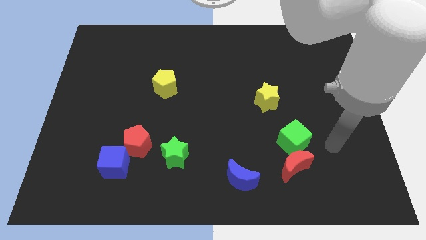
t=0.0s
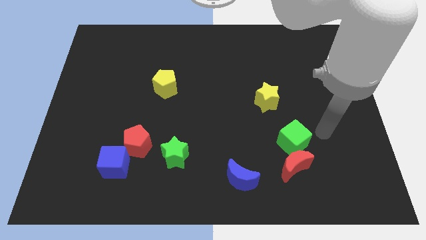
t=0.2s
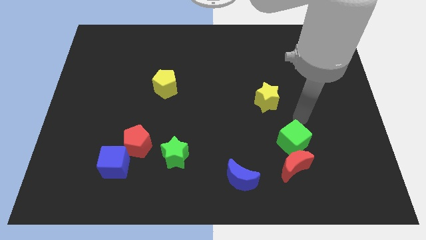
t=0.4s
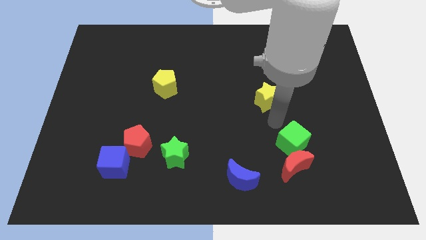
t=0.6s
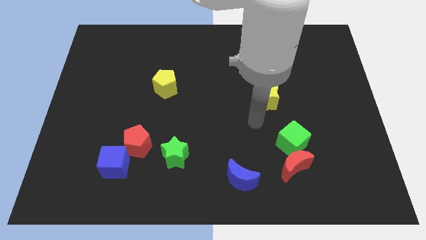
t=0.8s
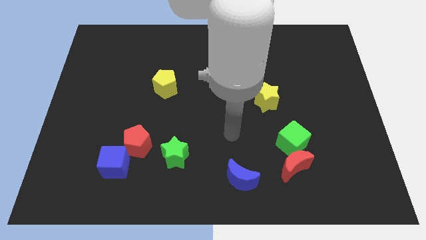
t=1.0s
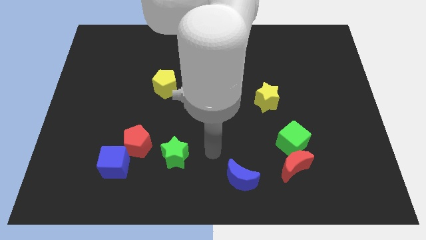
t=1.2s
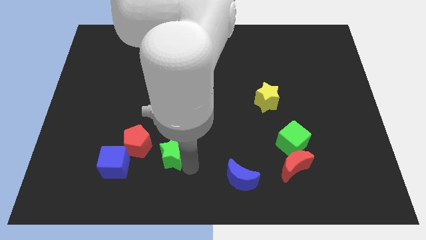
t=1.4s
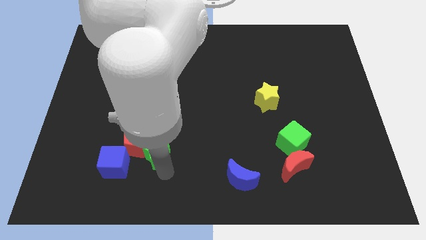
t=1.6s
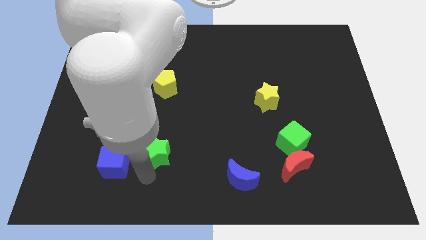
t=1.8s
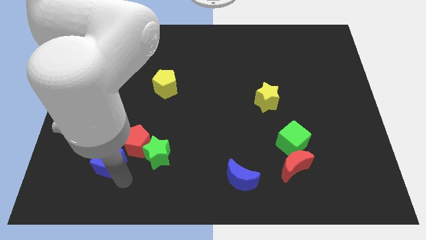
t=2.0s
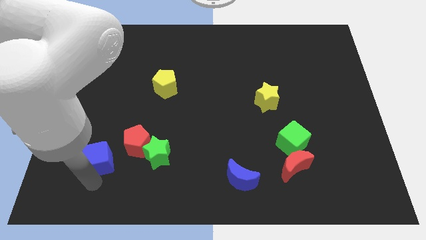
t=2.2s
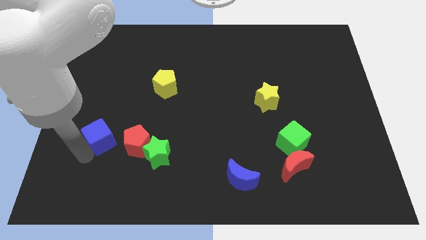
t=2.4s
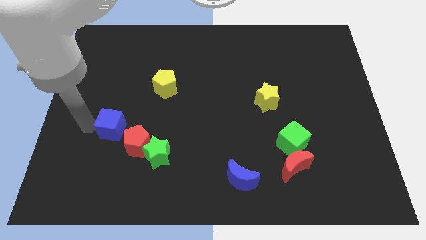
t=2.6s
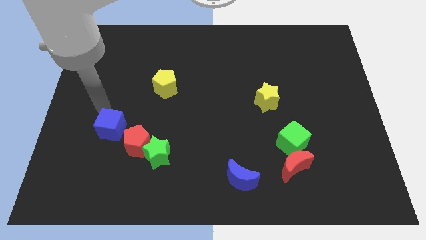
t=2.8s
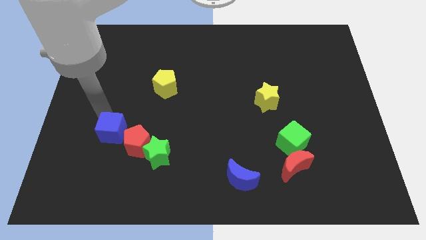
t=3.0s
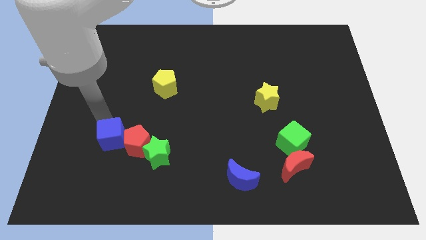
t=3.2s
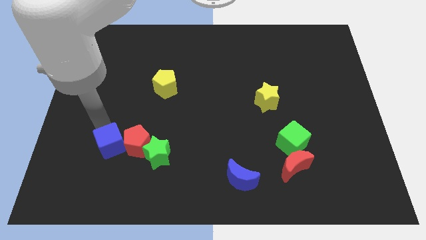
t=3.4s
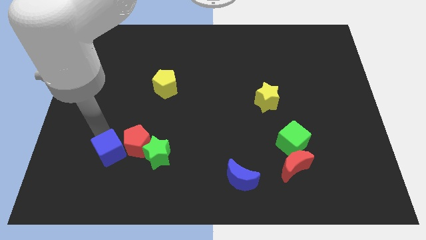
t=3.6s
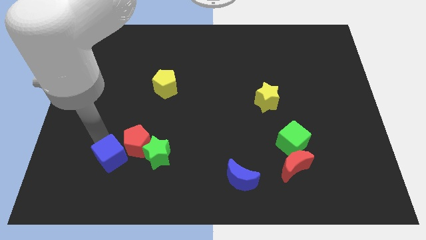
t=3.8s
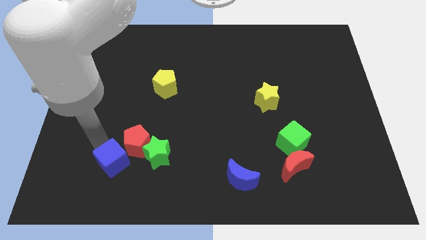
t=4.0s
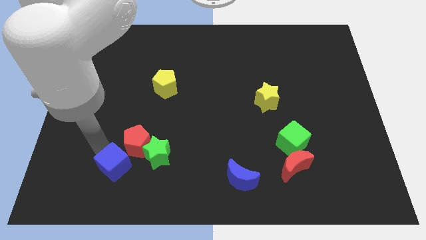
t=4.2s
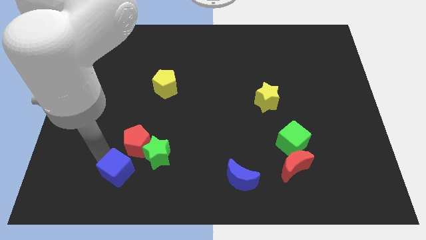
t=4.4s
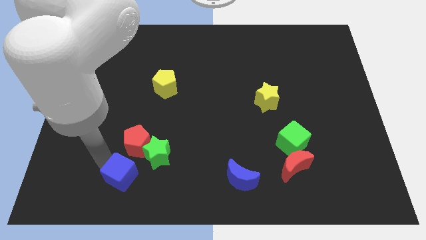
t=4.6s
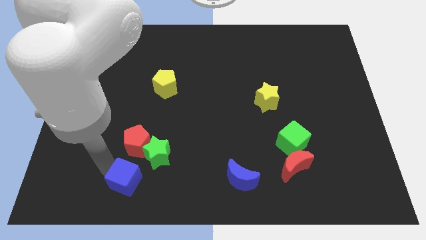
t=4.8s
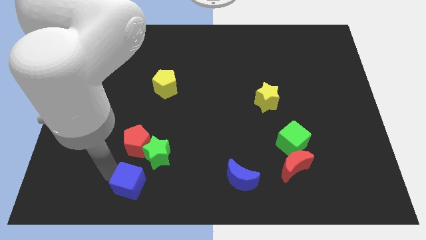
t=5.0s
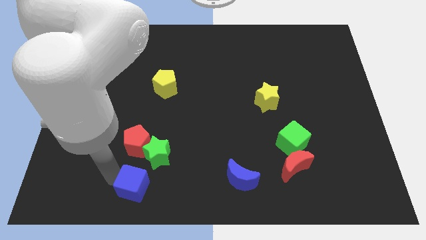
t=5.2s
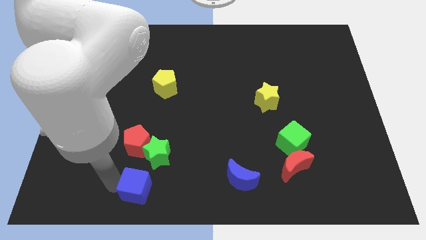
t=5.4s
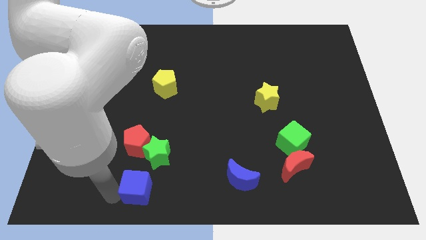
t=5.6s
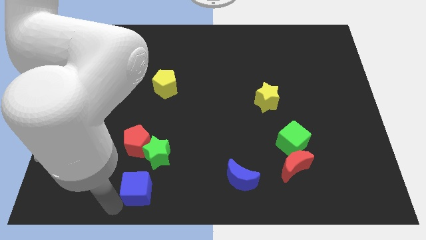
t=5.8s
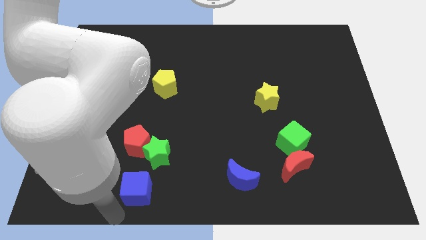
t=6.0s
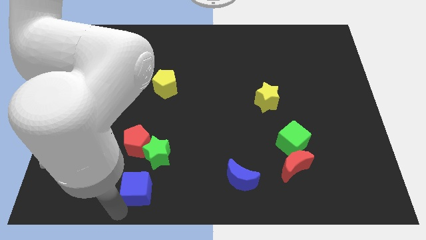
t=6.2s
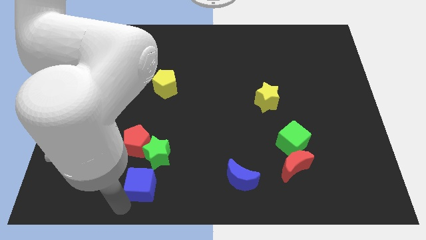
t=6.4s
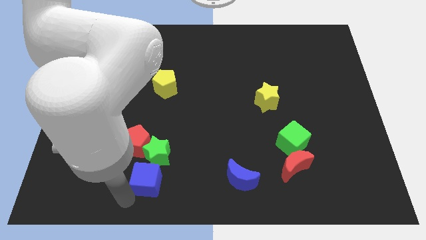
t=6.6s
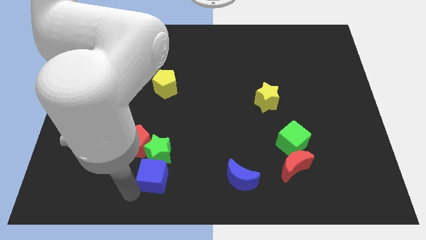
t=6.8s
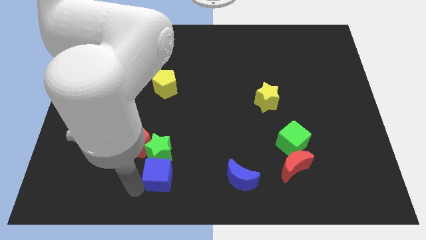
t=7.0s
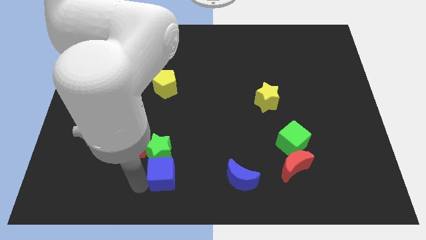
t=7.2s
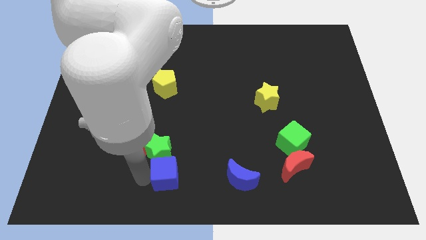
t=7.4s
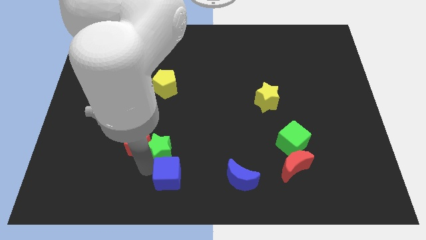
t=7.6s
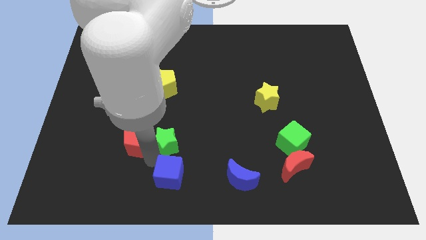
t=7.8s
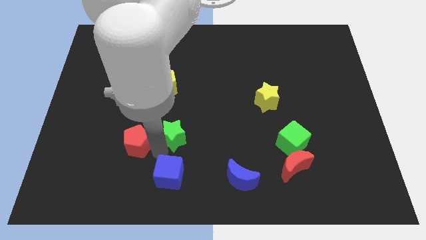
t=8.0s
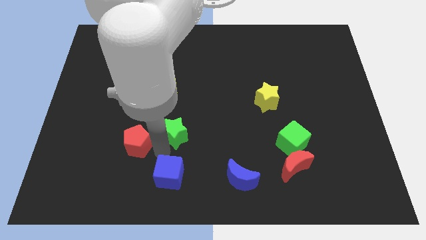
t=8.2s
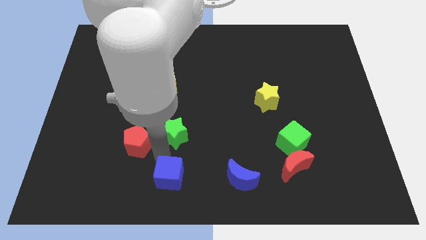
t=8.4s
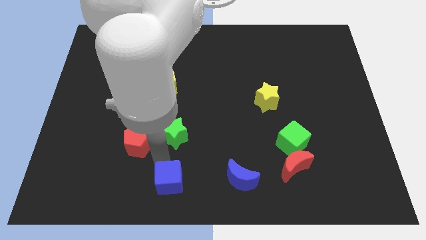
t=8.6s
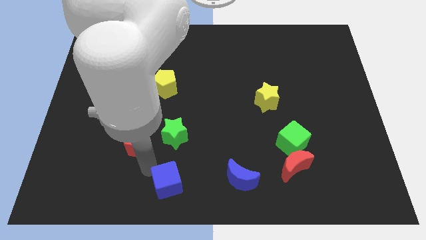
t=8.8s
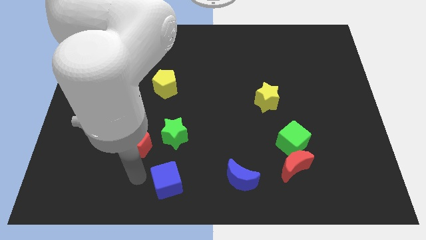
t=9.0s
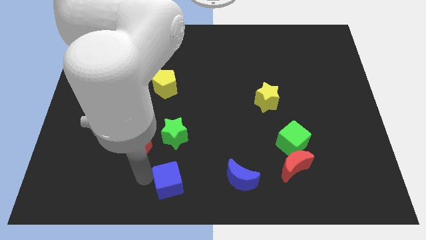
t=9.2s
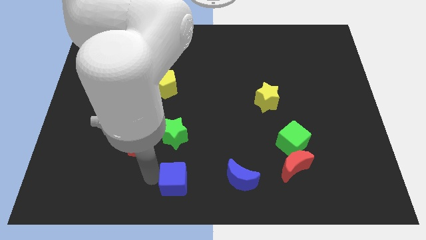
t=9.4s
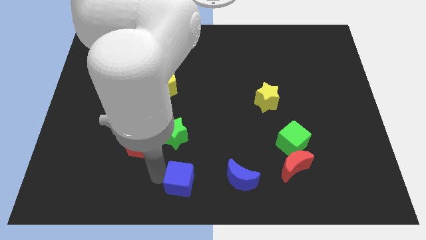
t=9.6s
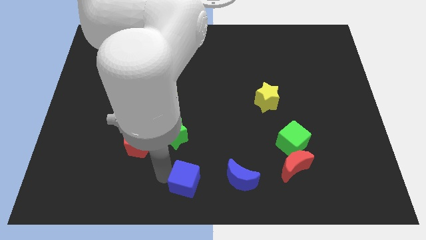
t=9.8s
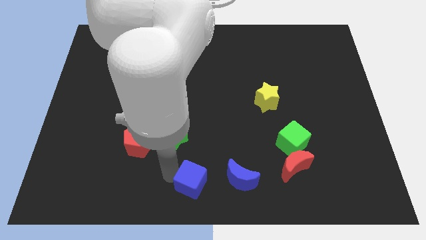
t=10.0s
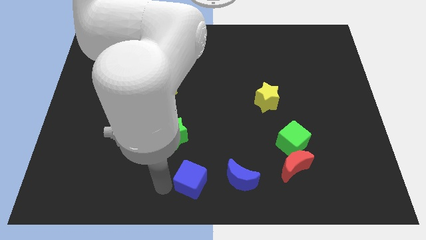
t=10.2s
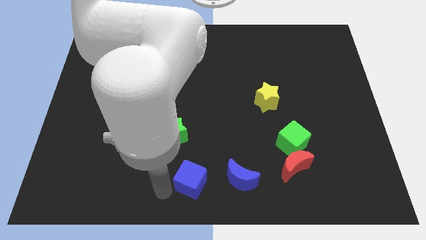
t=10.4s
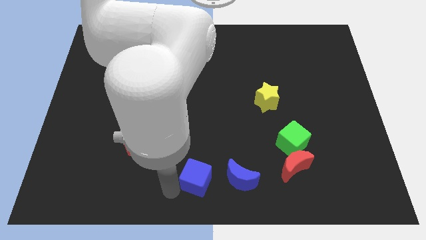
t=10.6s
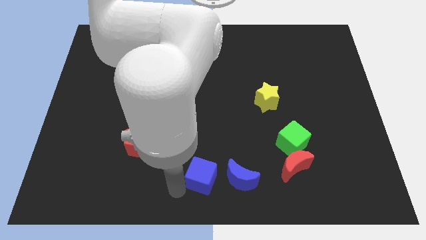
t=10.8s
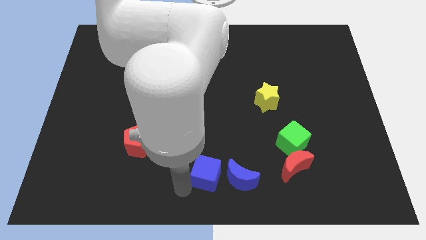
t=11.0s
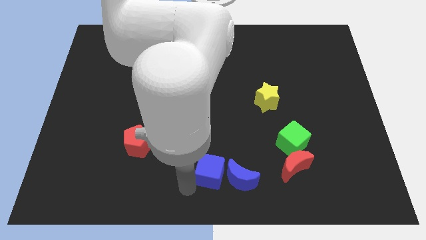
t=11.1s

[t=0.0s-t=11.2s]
move the blue cube to the right

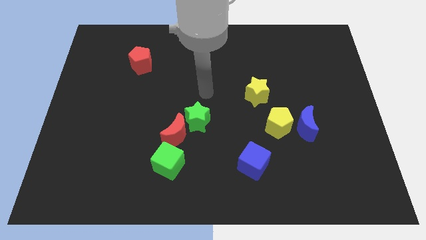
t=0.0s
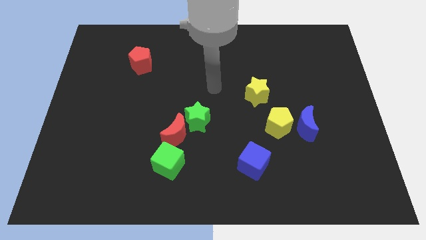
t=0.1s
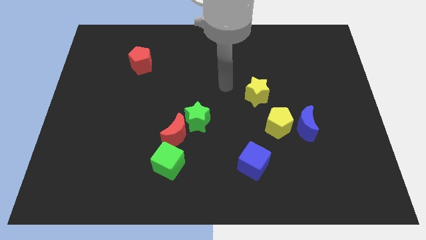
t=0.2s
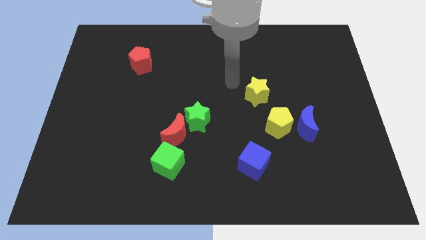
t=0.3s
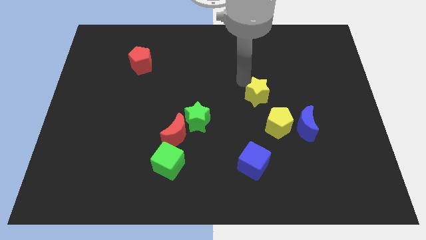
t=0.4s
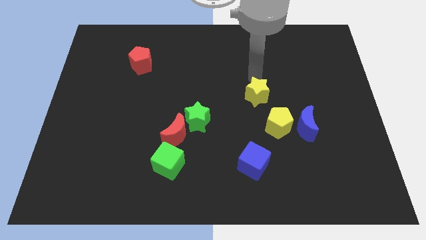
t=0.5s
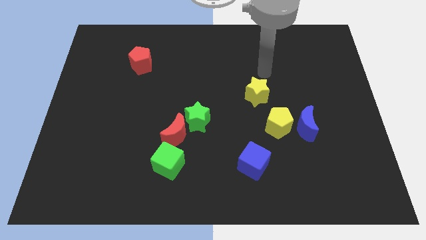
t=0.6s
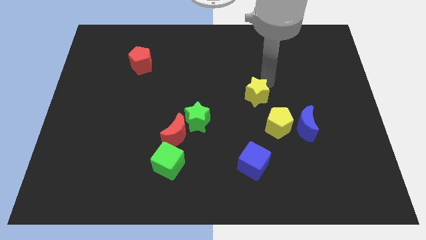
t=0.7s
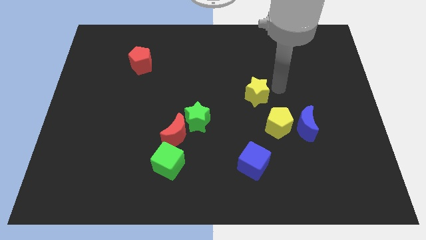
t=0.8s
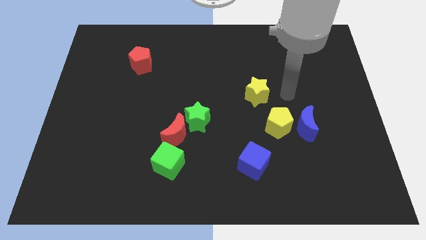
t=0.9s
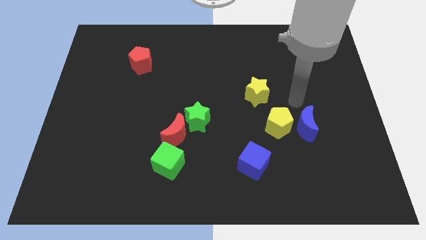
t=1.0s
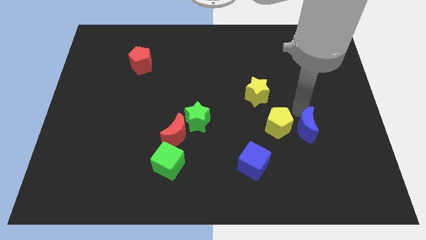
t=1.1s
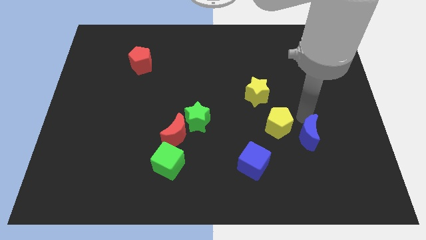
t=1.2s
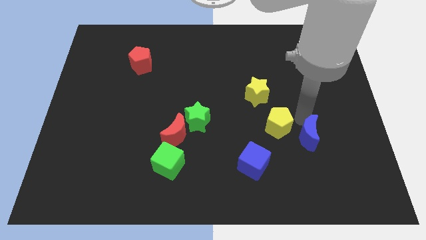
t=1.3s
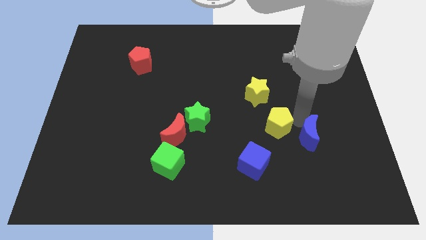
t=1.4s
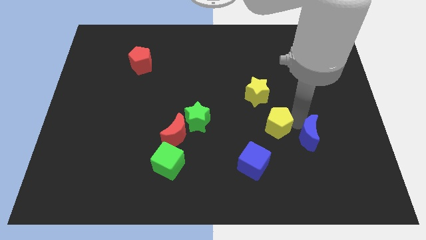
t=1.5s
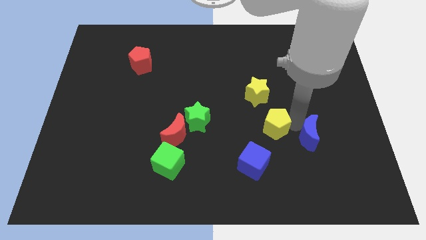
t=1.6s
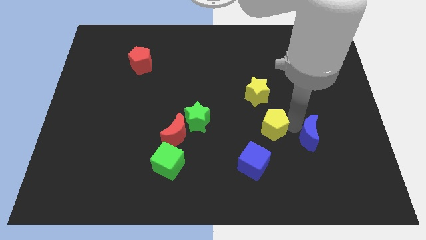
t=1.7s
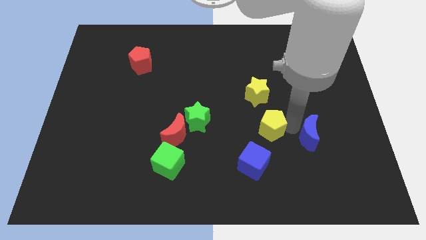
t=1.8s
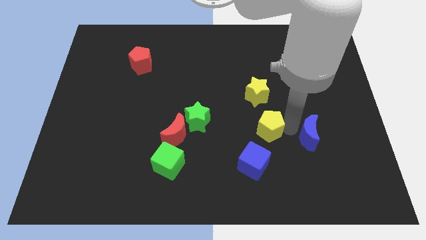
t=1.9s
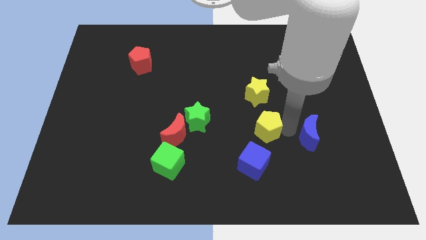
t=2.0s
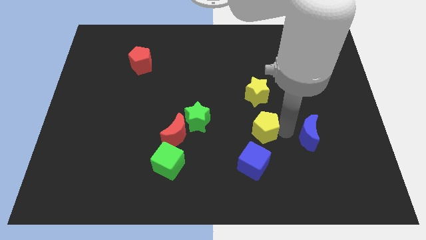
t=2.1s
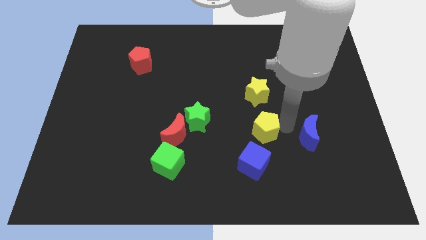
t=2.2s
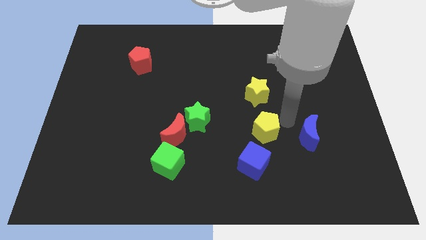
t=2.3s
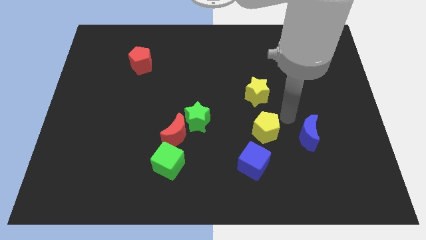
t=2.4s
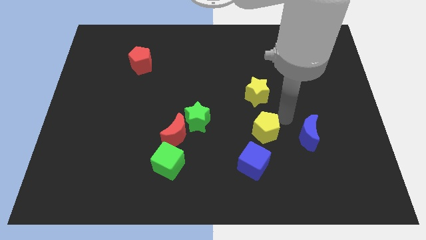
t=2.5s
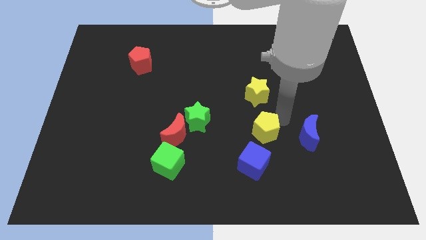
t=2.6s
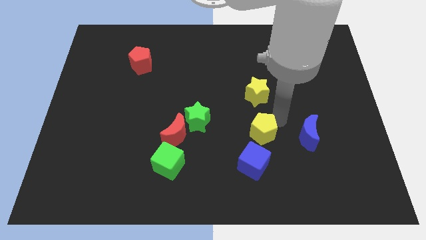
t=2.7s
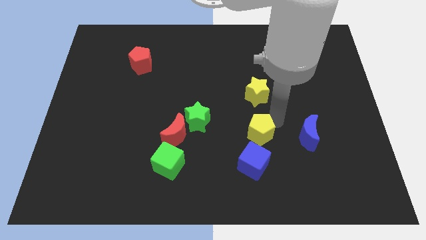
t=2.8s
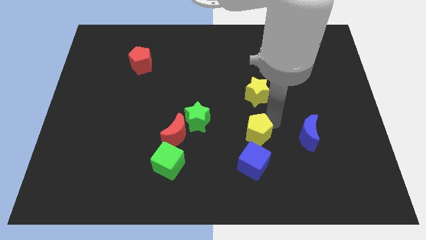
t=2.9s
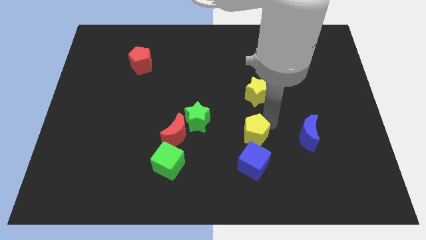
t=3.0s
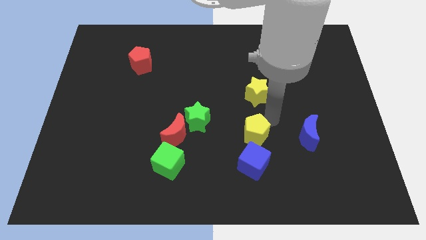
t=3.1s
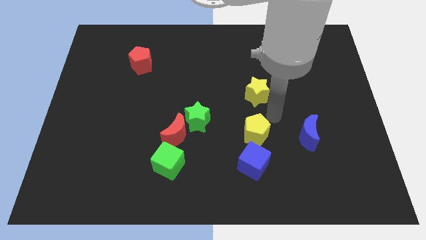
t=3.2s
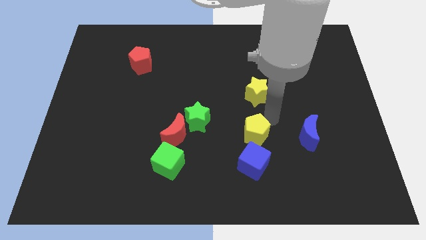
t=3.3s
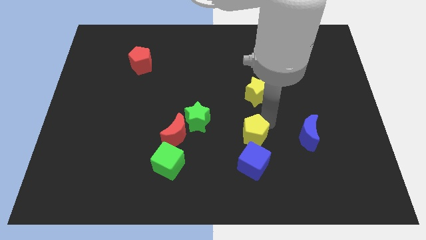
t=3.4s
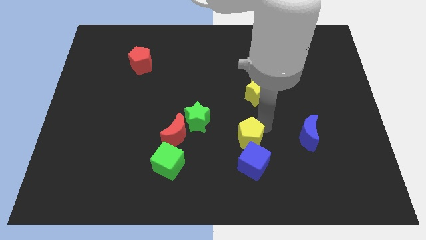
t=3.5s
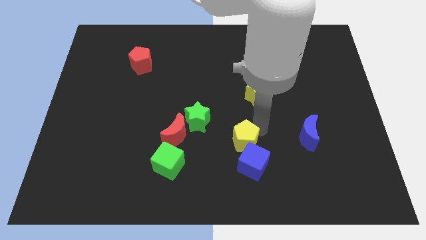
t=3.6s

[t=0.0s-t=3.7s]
slightly push the yellow pentagon downwards and to the left diagonally
